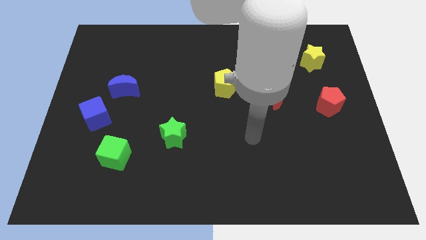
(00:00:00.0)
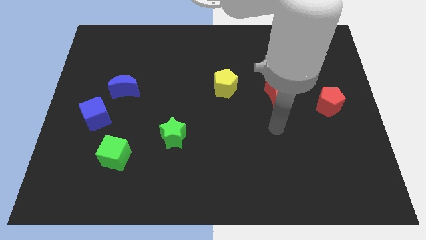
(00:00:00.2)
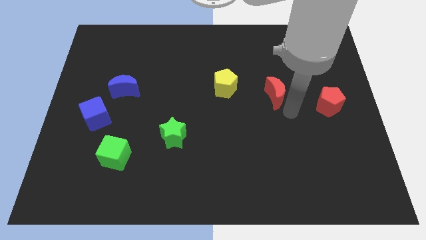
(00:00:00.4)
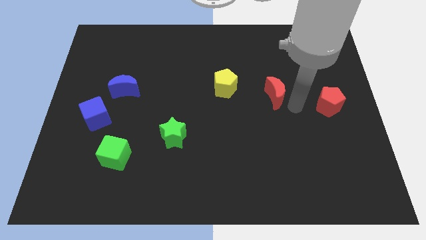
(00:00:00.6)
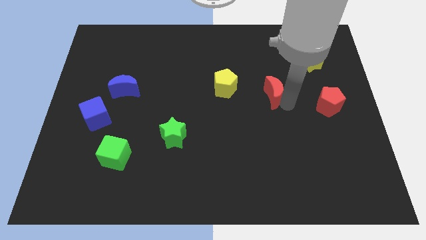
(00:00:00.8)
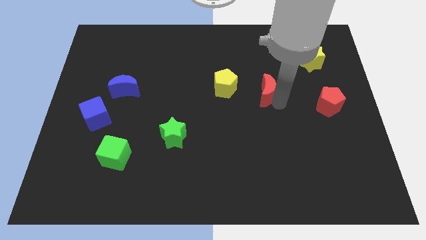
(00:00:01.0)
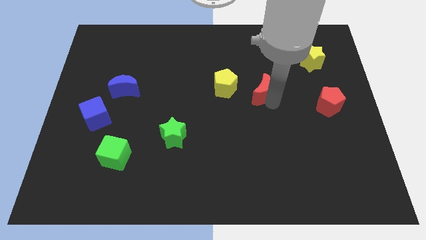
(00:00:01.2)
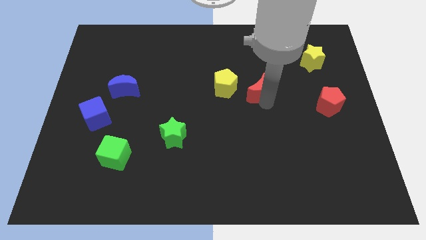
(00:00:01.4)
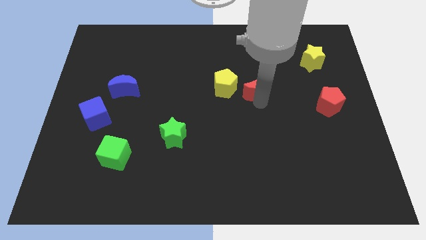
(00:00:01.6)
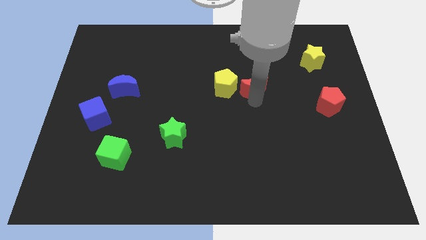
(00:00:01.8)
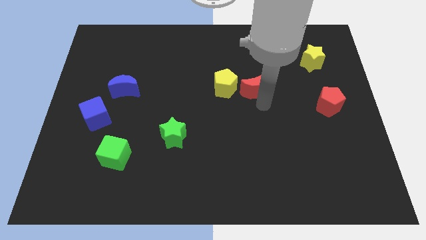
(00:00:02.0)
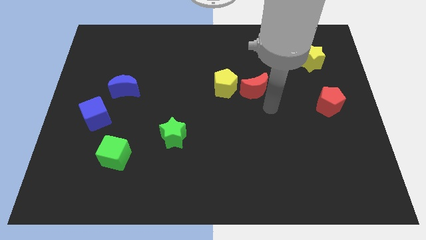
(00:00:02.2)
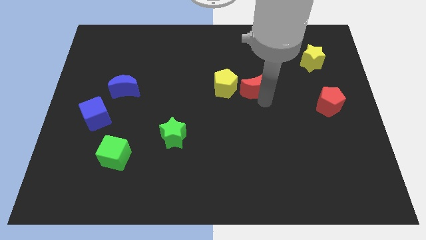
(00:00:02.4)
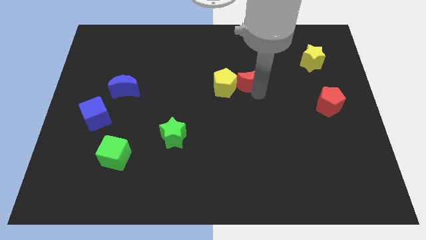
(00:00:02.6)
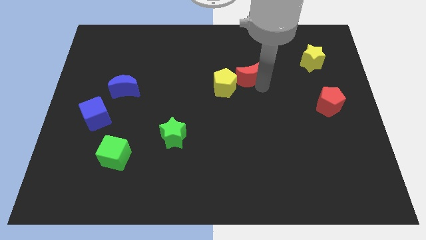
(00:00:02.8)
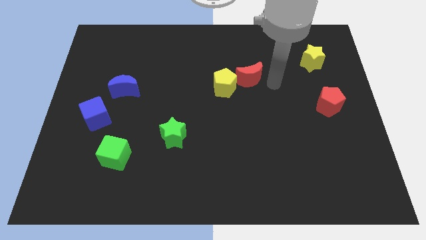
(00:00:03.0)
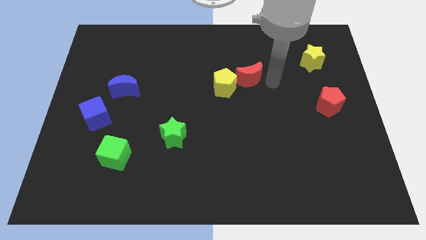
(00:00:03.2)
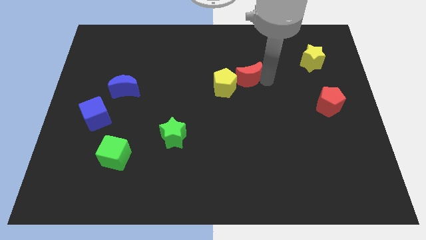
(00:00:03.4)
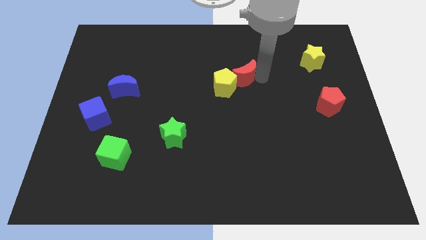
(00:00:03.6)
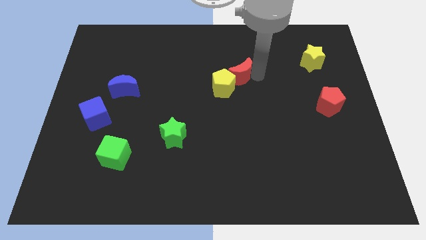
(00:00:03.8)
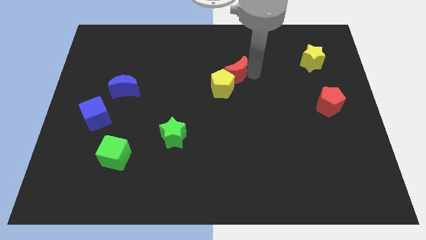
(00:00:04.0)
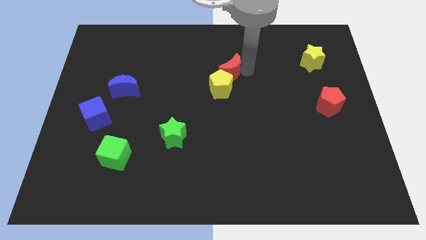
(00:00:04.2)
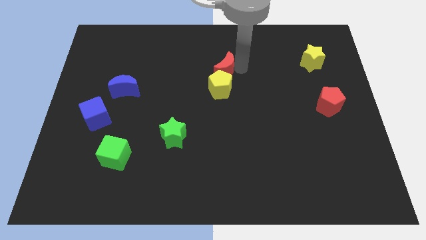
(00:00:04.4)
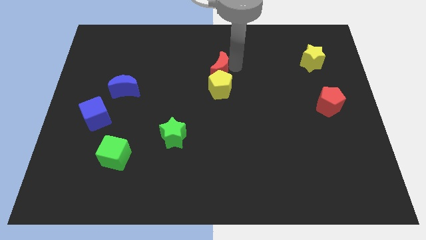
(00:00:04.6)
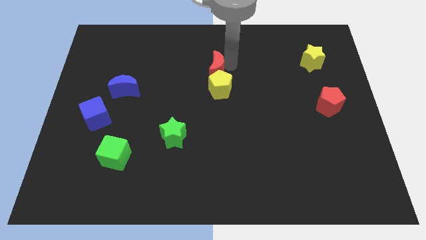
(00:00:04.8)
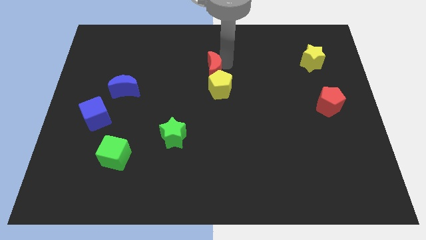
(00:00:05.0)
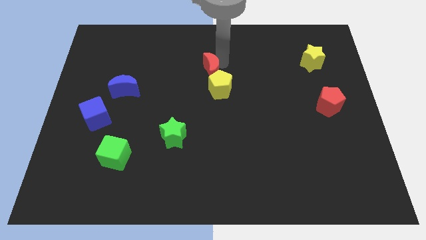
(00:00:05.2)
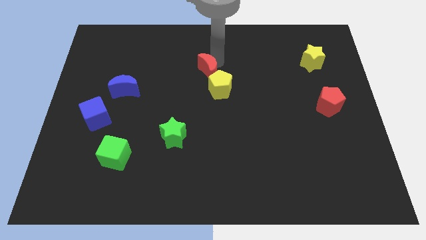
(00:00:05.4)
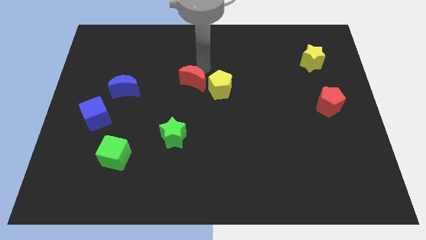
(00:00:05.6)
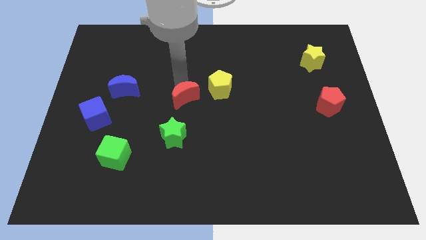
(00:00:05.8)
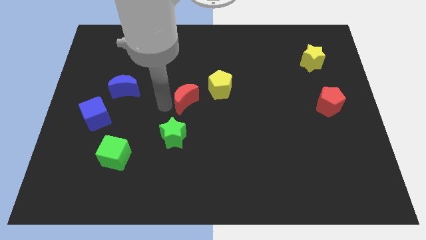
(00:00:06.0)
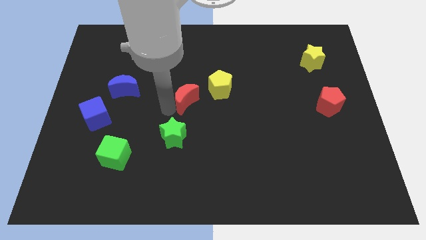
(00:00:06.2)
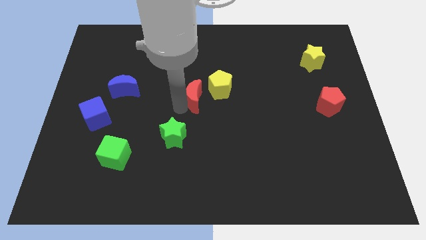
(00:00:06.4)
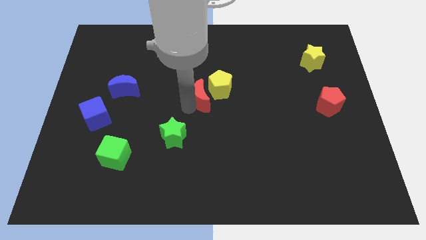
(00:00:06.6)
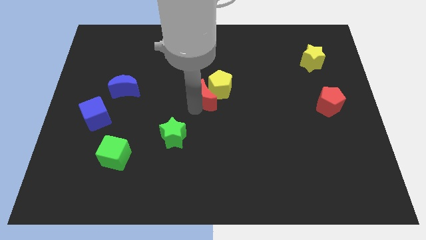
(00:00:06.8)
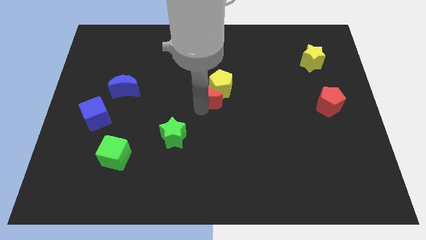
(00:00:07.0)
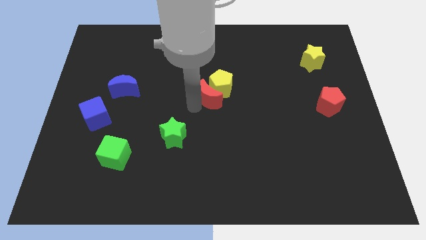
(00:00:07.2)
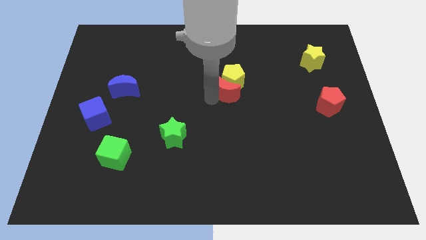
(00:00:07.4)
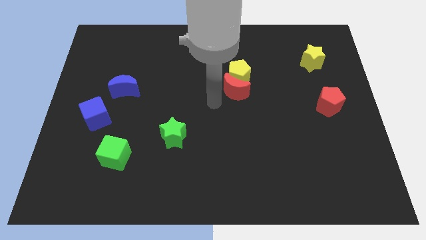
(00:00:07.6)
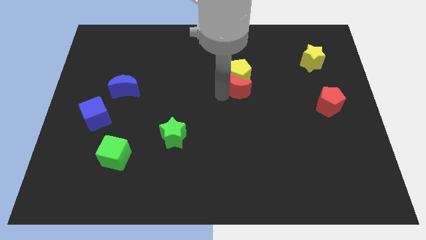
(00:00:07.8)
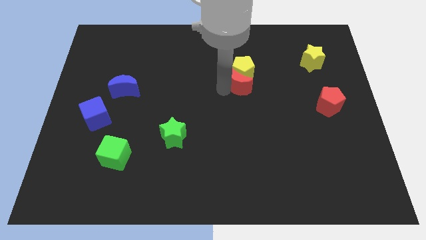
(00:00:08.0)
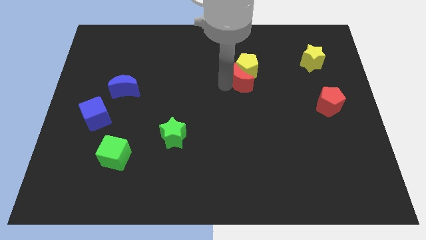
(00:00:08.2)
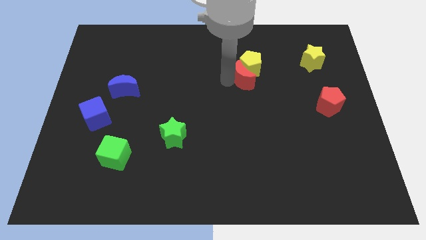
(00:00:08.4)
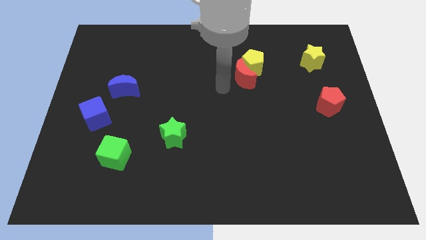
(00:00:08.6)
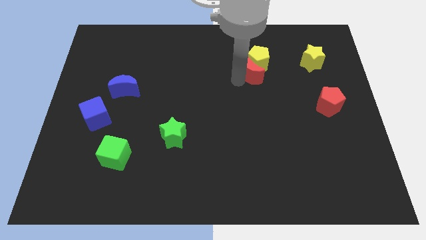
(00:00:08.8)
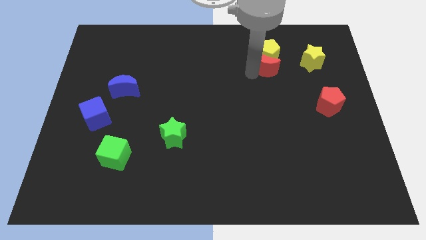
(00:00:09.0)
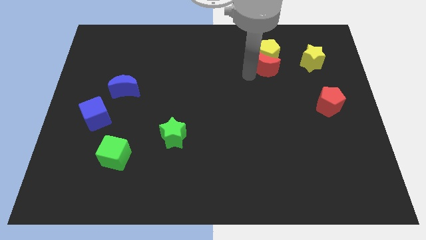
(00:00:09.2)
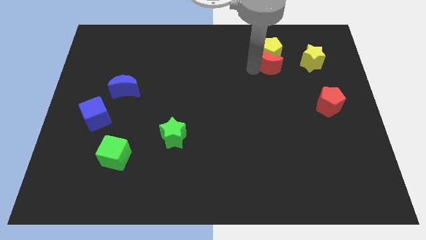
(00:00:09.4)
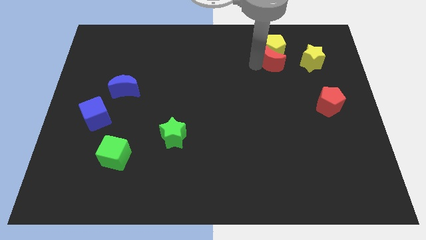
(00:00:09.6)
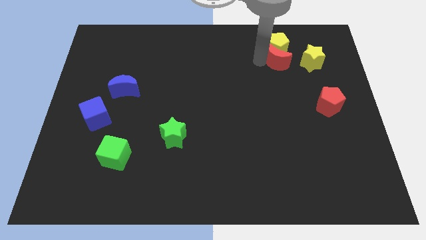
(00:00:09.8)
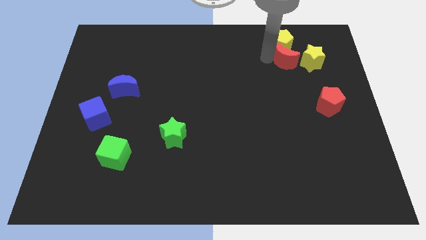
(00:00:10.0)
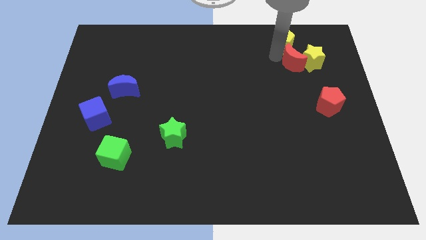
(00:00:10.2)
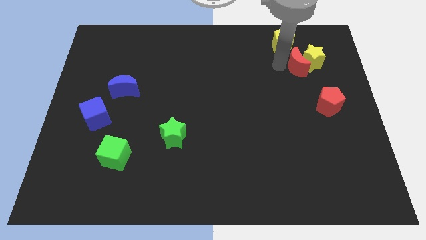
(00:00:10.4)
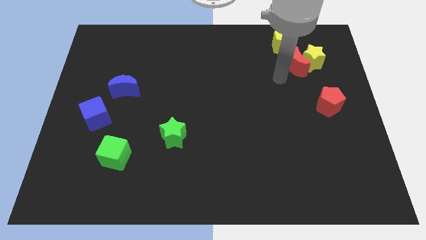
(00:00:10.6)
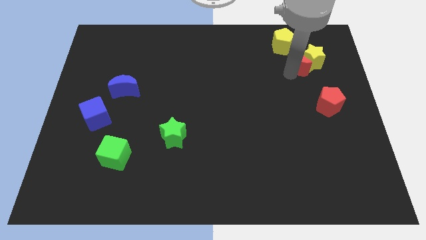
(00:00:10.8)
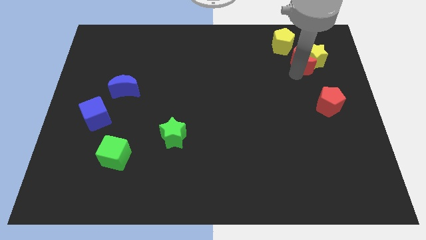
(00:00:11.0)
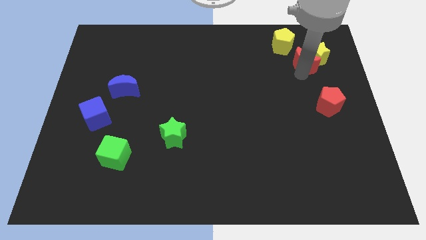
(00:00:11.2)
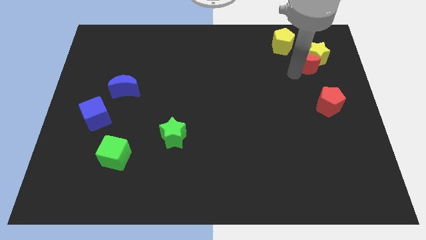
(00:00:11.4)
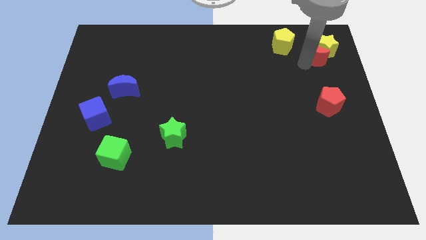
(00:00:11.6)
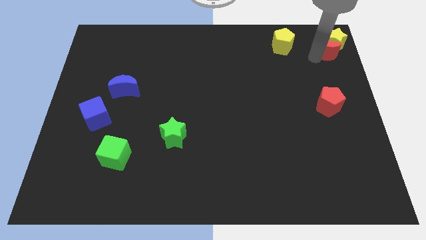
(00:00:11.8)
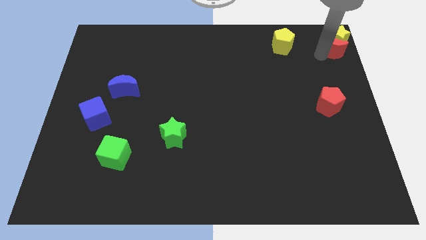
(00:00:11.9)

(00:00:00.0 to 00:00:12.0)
push the red moon to the upper right corner
